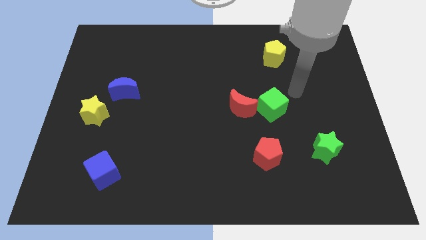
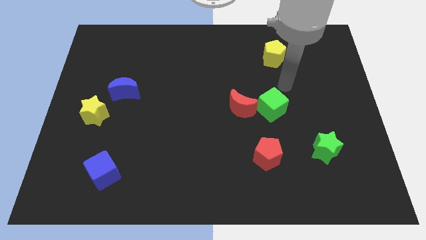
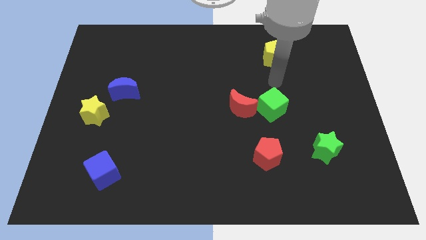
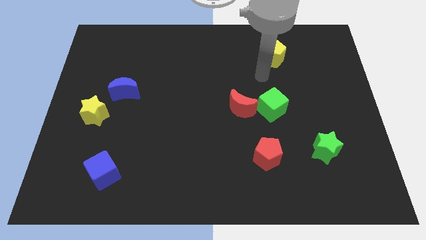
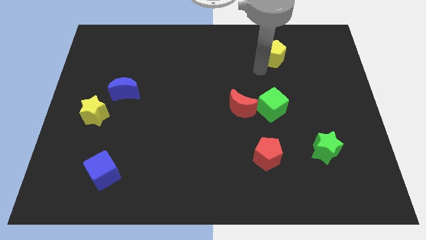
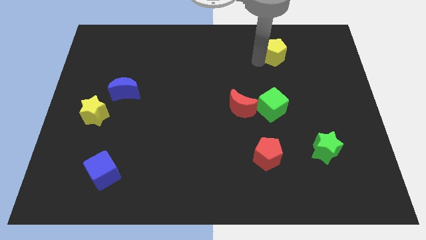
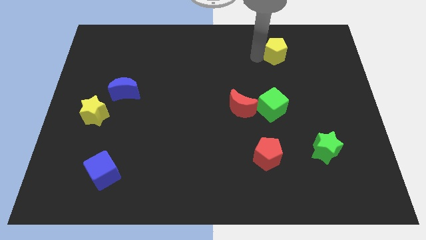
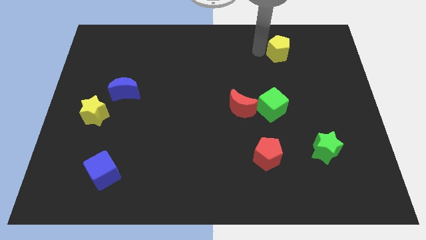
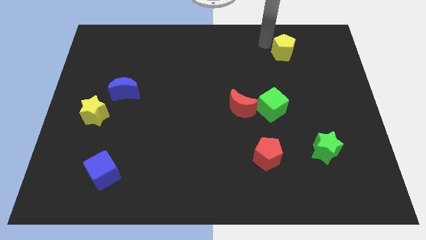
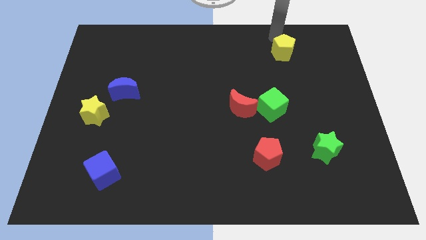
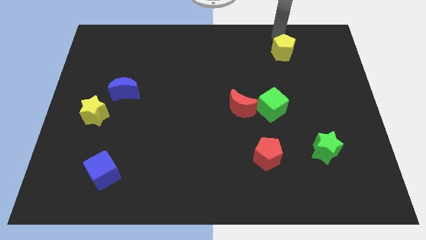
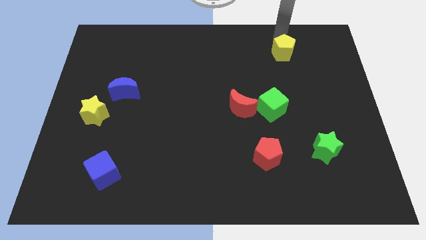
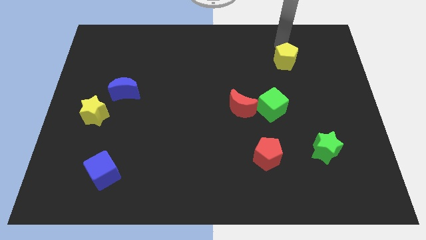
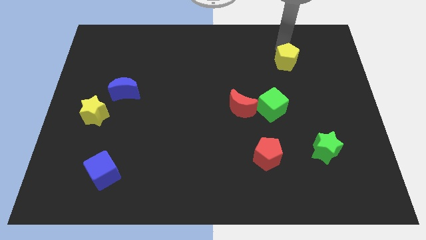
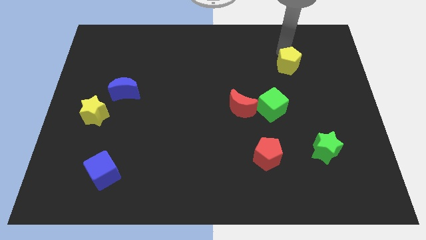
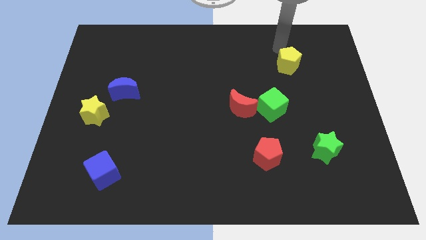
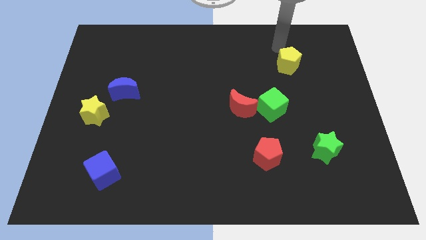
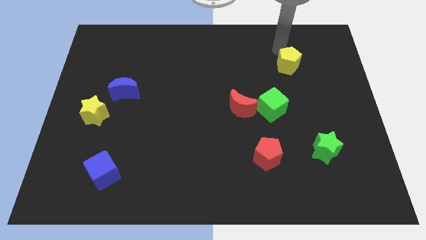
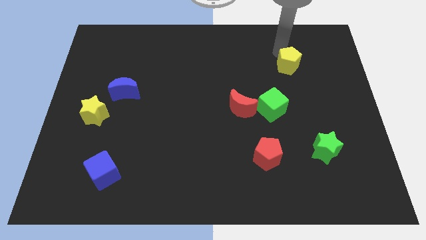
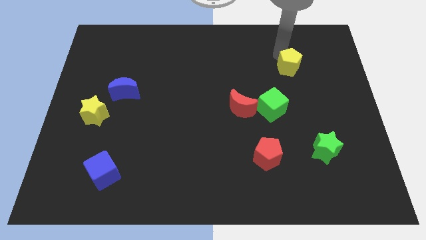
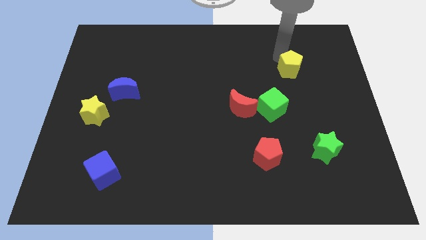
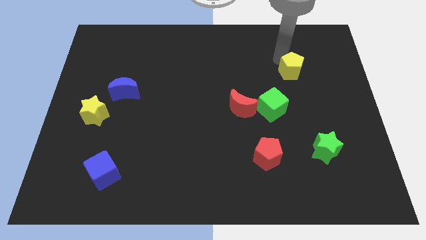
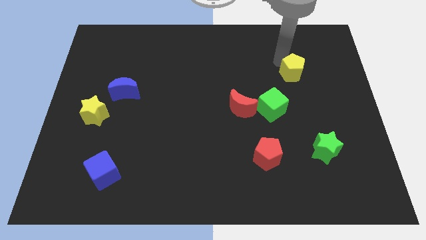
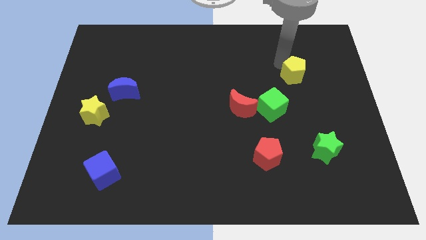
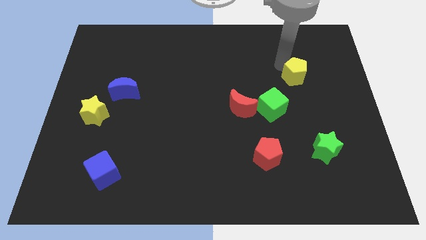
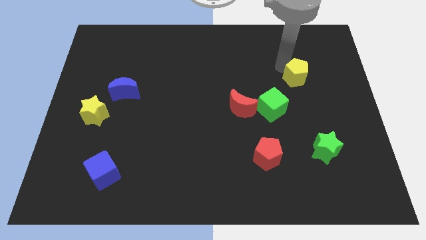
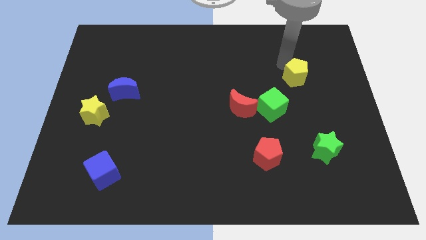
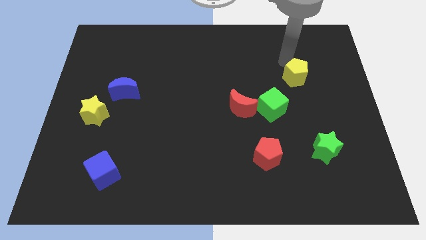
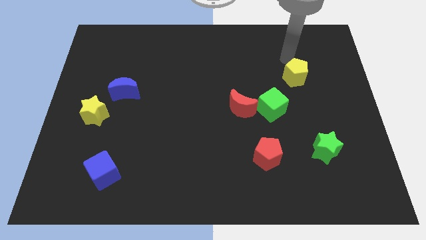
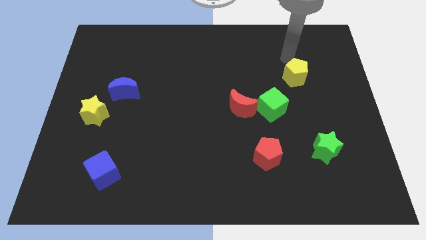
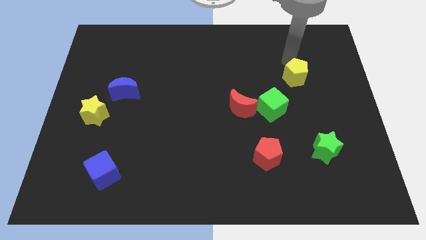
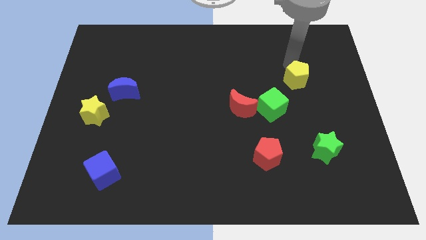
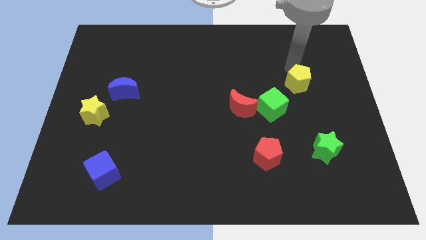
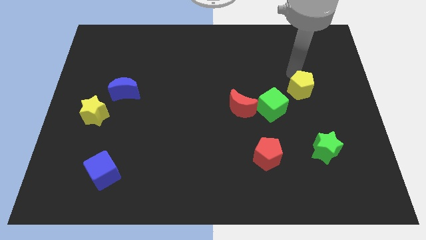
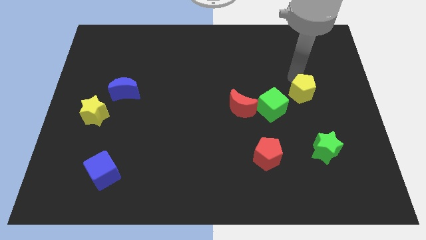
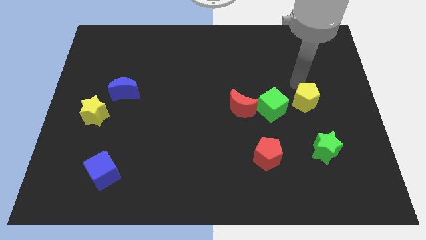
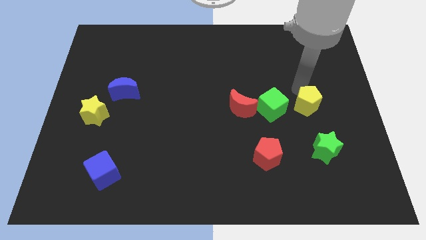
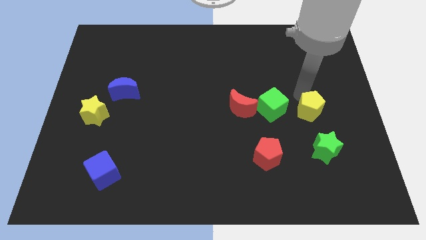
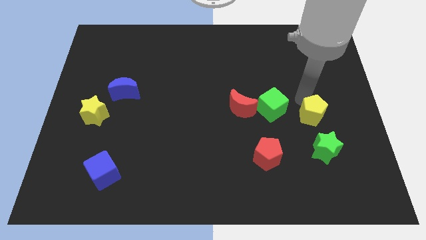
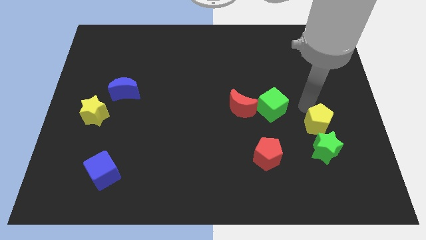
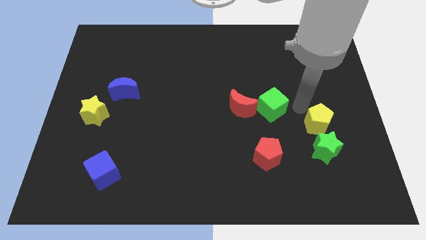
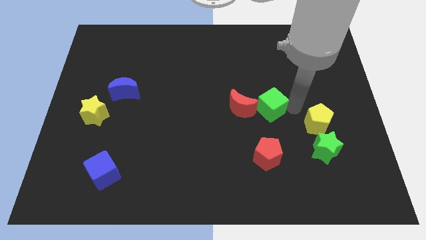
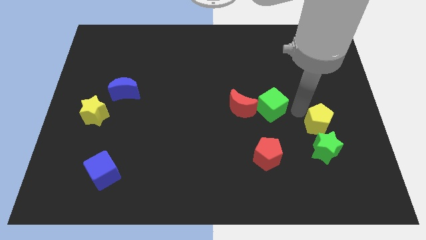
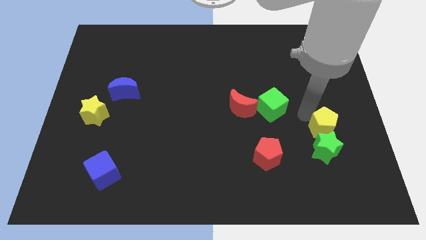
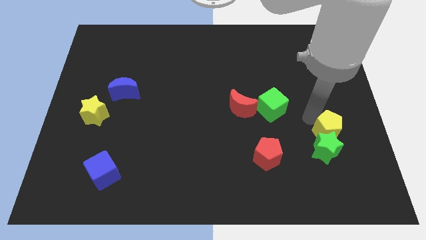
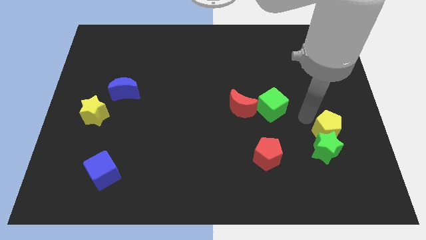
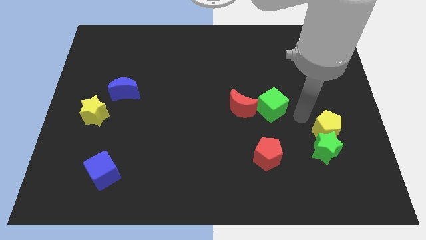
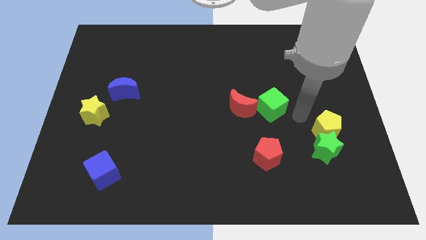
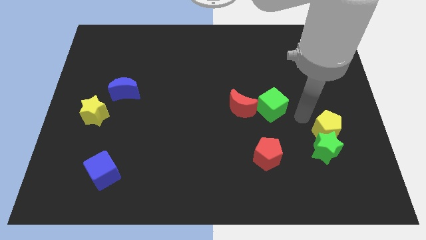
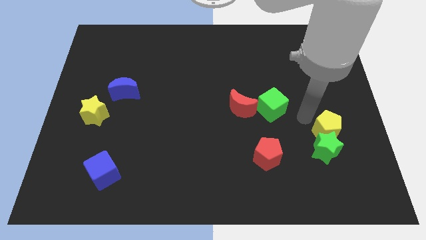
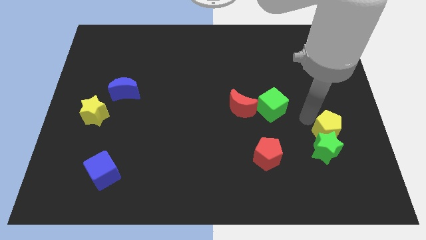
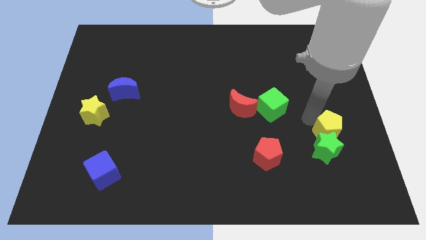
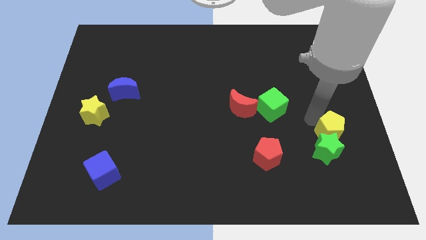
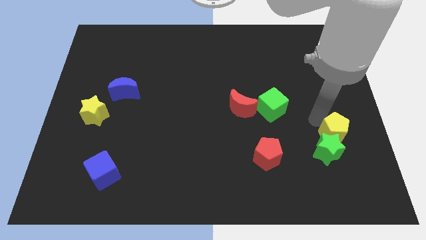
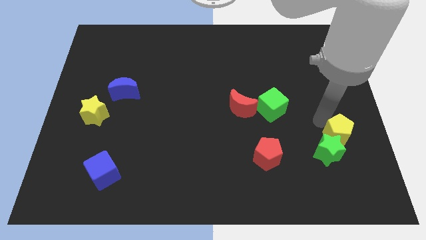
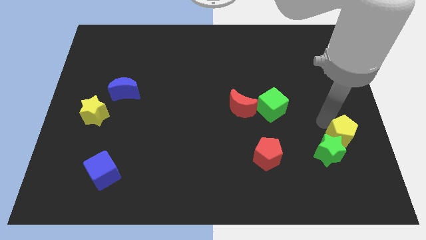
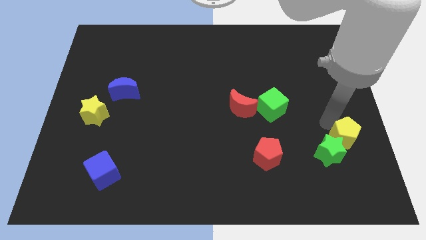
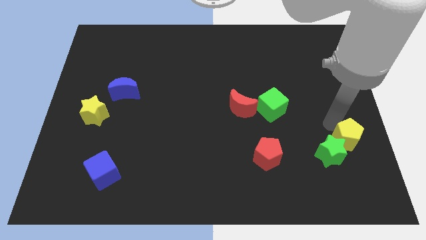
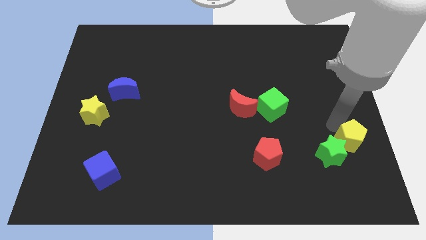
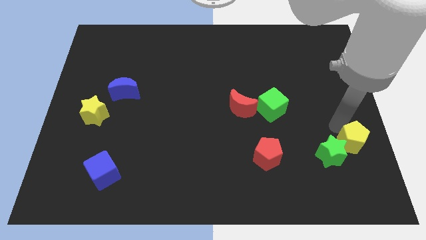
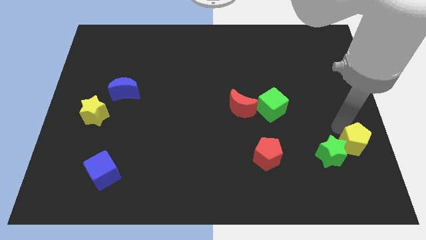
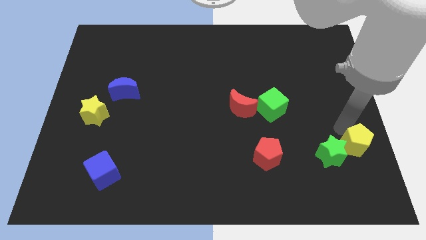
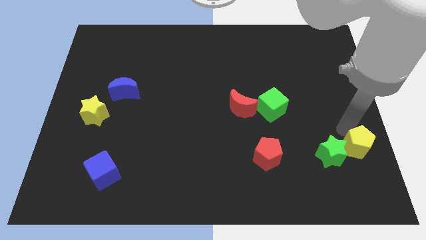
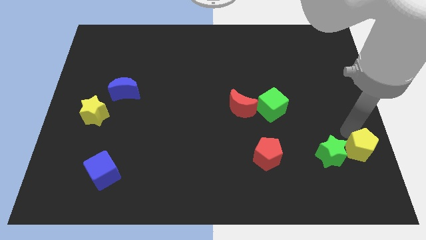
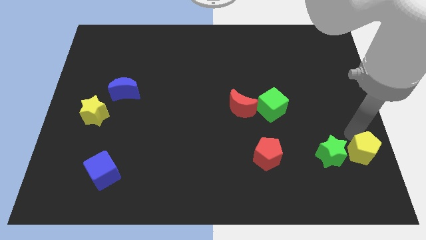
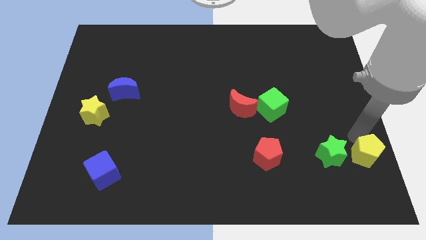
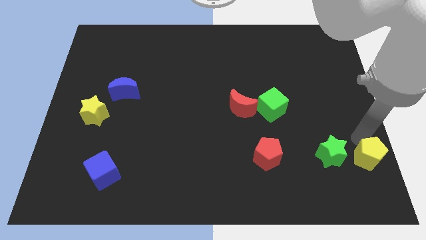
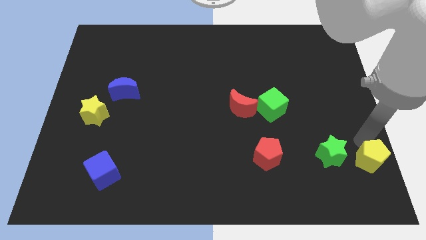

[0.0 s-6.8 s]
slide the yellow pentagon to the bottom right of the board
